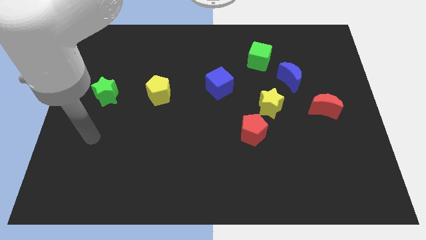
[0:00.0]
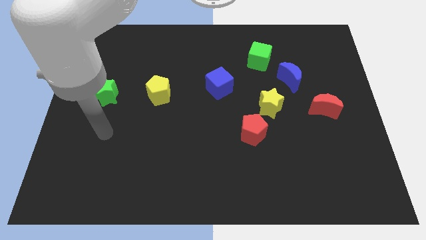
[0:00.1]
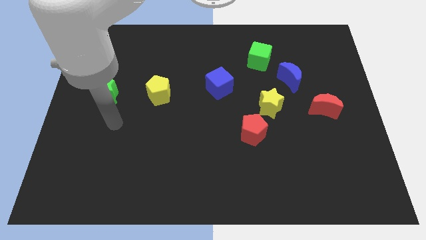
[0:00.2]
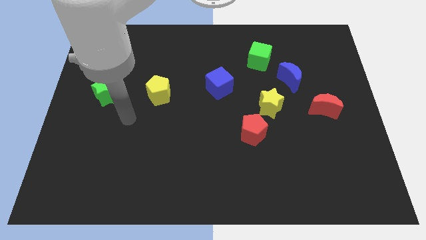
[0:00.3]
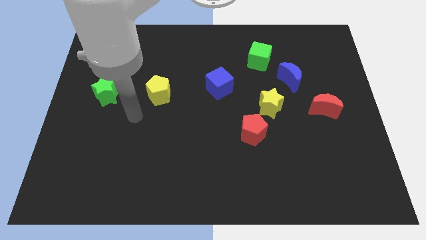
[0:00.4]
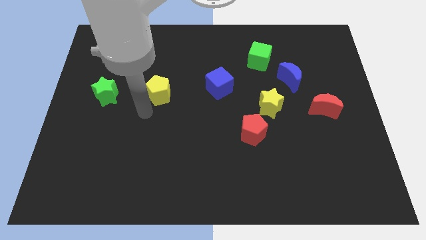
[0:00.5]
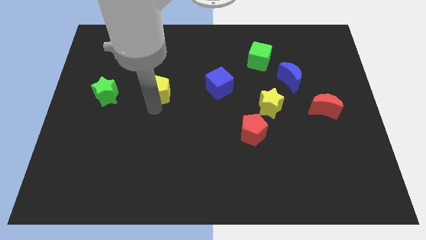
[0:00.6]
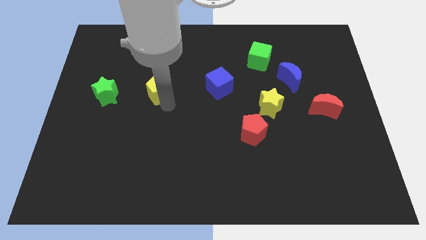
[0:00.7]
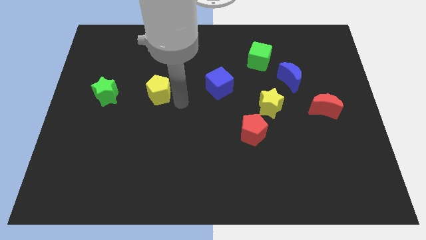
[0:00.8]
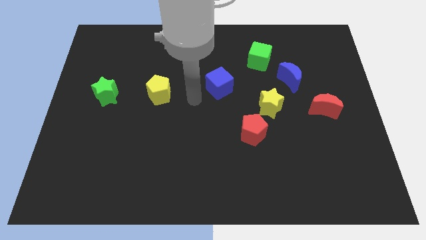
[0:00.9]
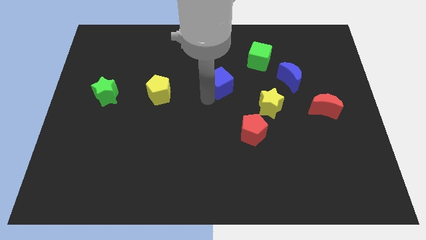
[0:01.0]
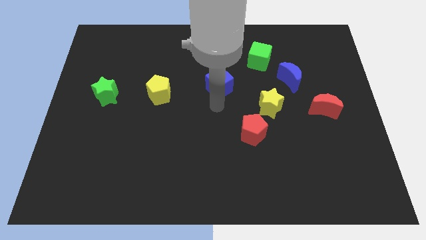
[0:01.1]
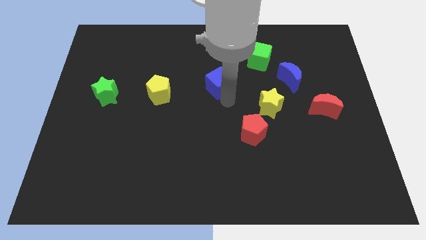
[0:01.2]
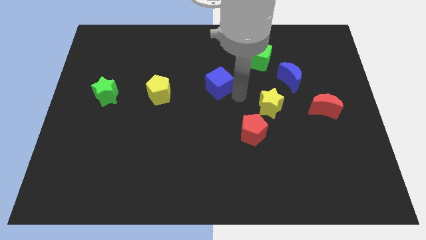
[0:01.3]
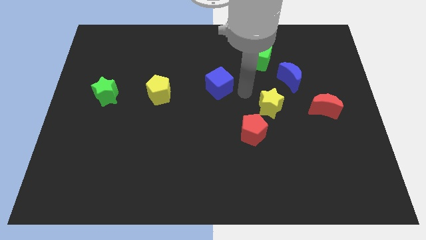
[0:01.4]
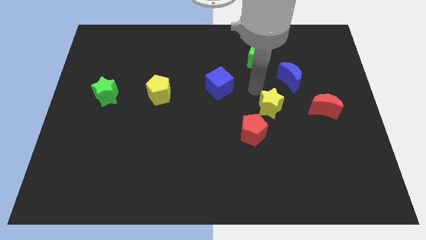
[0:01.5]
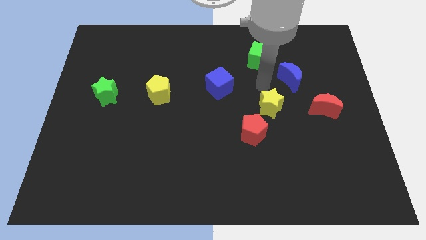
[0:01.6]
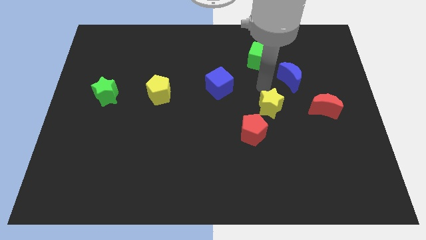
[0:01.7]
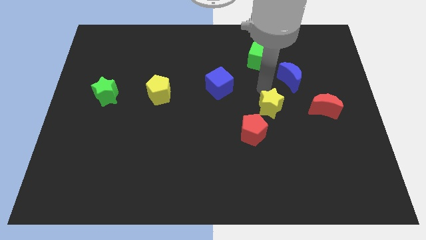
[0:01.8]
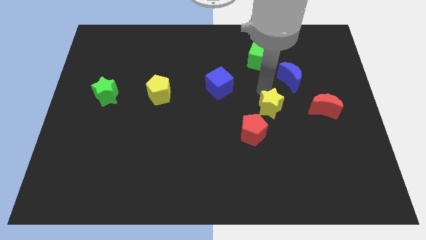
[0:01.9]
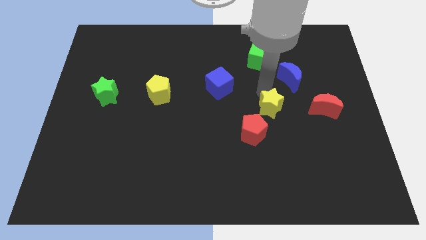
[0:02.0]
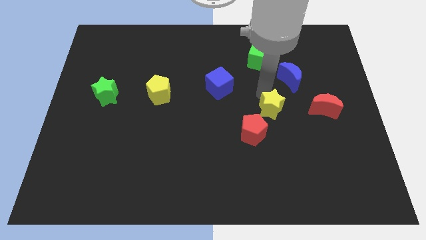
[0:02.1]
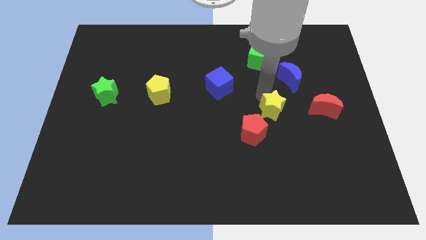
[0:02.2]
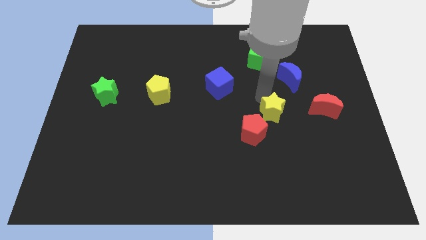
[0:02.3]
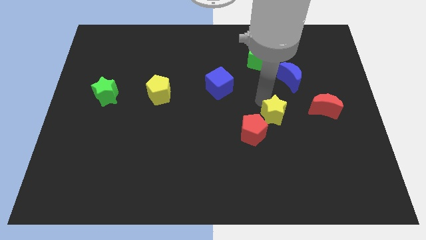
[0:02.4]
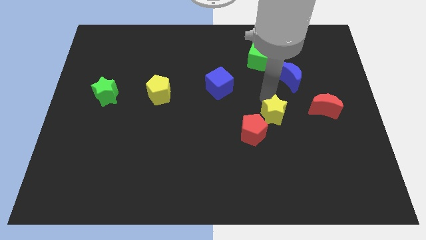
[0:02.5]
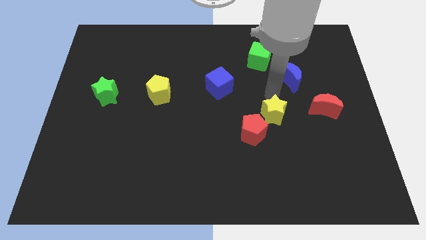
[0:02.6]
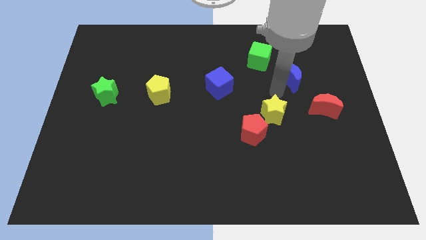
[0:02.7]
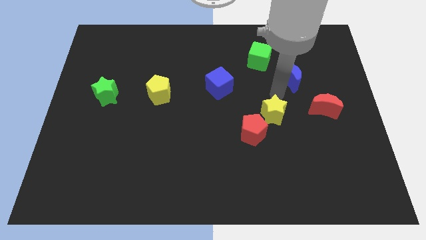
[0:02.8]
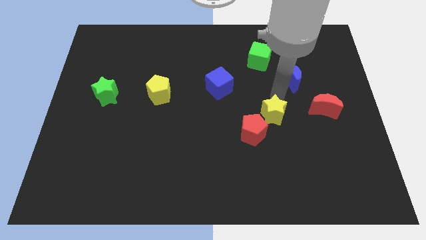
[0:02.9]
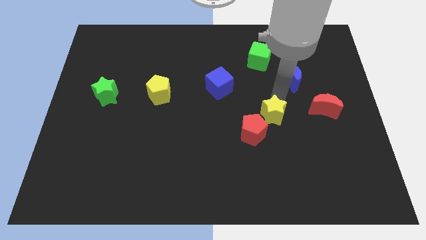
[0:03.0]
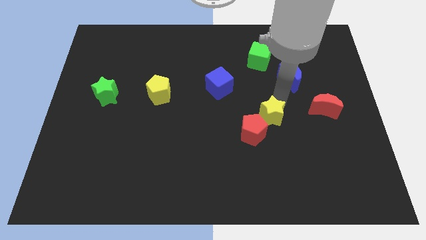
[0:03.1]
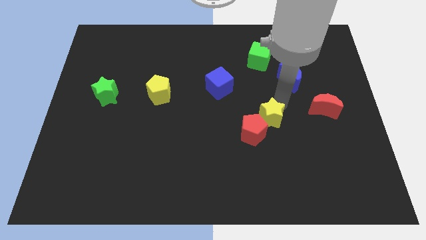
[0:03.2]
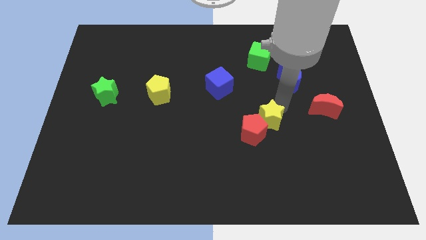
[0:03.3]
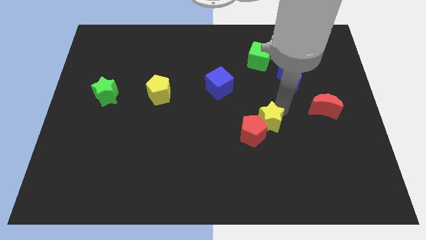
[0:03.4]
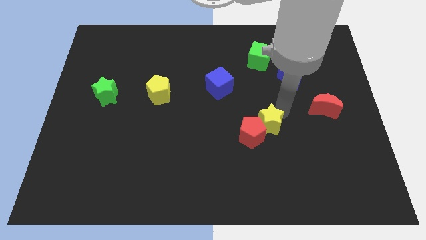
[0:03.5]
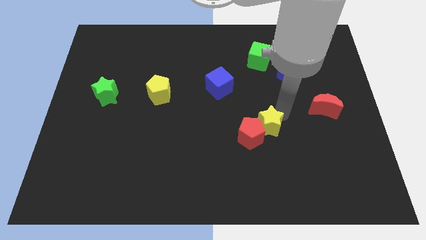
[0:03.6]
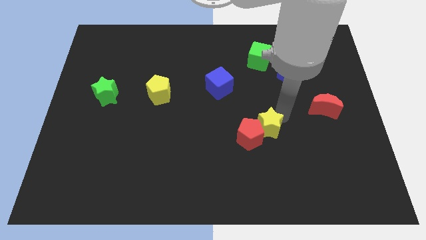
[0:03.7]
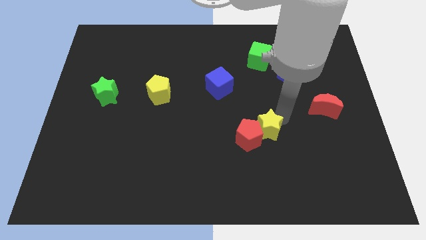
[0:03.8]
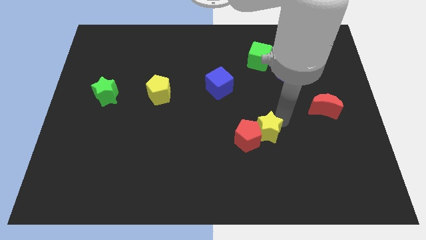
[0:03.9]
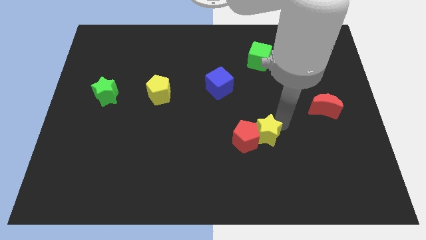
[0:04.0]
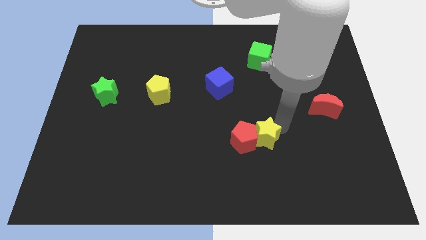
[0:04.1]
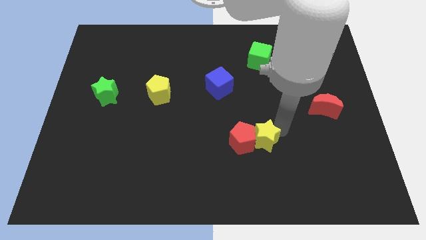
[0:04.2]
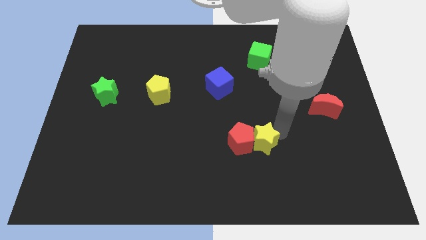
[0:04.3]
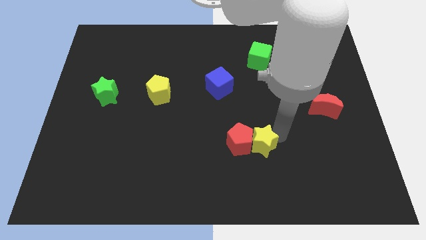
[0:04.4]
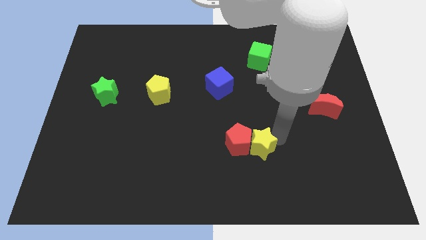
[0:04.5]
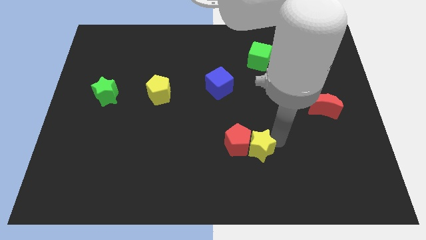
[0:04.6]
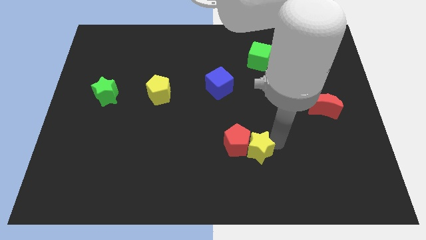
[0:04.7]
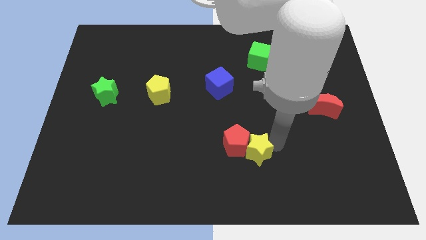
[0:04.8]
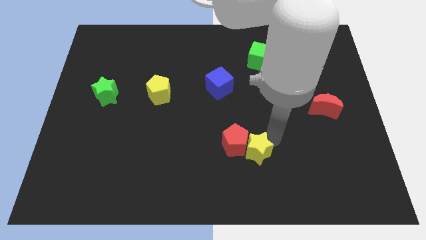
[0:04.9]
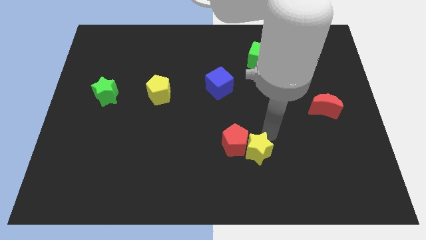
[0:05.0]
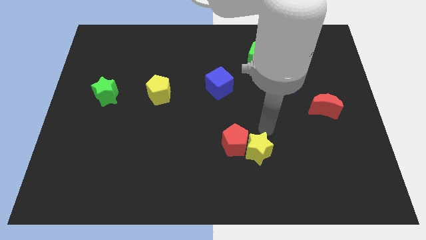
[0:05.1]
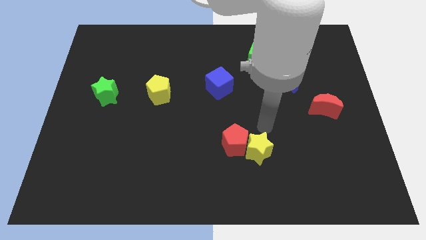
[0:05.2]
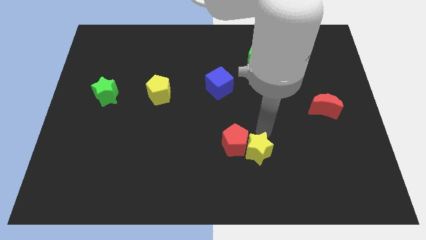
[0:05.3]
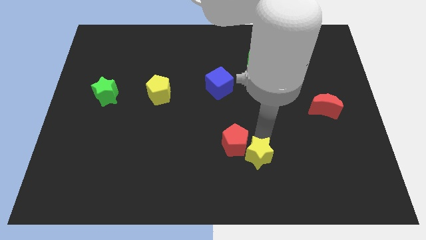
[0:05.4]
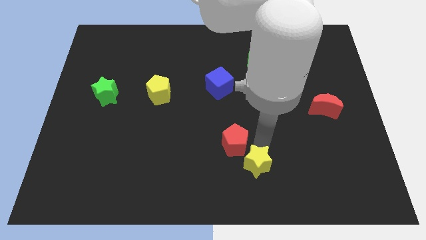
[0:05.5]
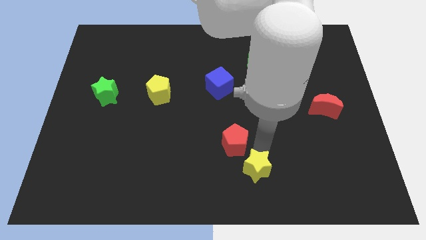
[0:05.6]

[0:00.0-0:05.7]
put the yellow star to the bottom side

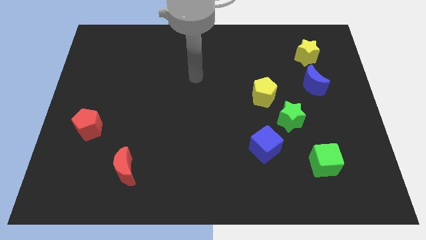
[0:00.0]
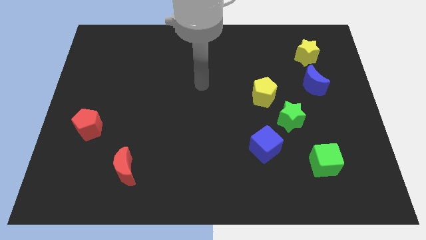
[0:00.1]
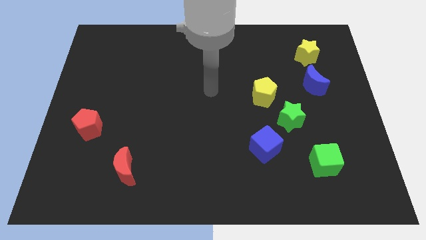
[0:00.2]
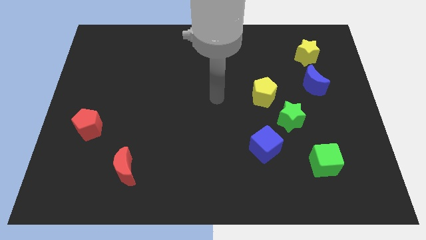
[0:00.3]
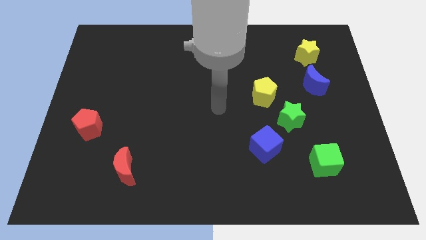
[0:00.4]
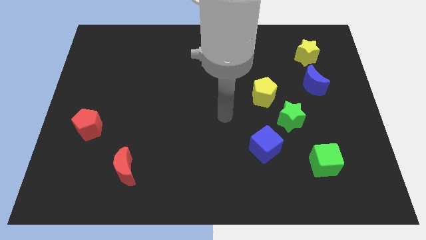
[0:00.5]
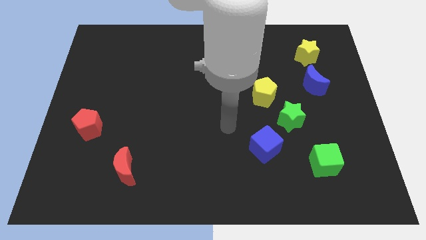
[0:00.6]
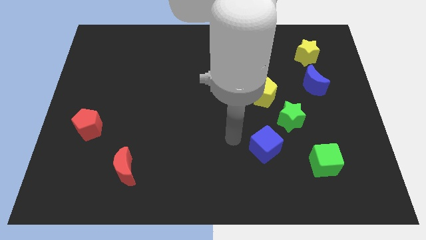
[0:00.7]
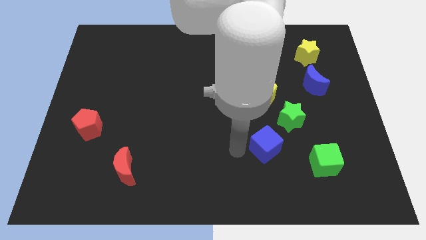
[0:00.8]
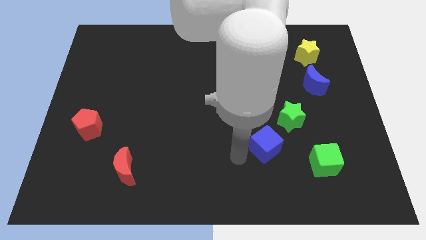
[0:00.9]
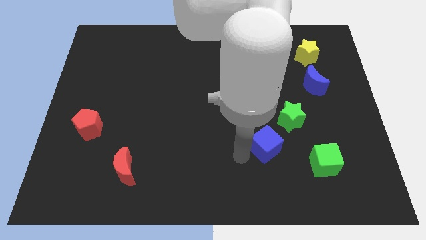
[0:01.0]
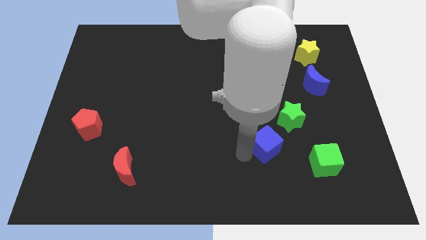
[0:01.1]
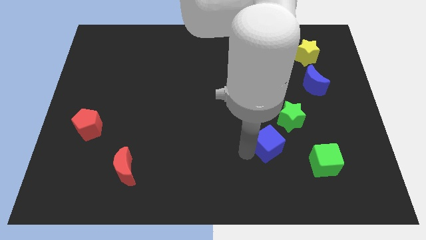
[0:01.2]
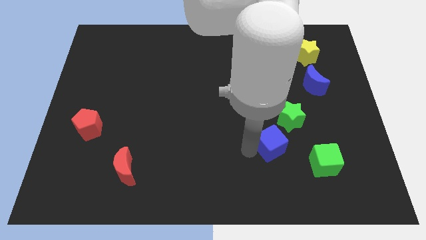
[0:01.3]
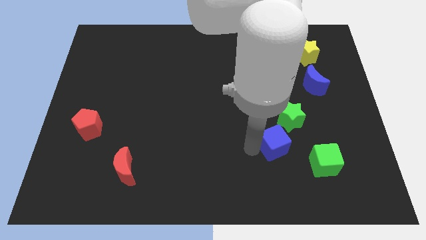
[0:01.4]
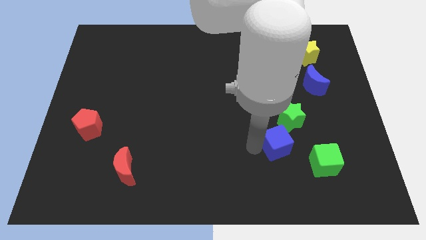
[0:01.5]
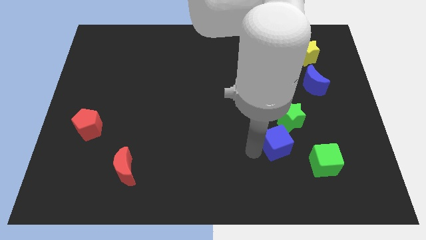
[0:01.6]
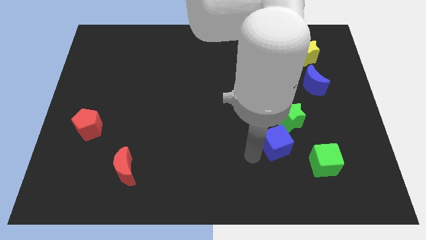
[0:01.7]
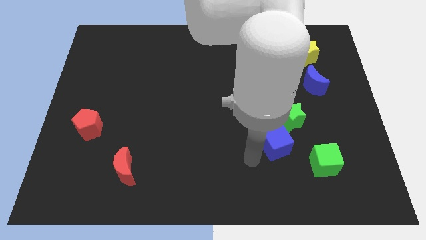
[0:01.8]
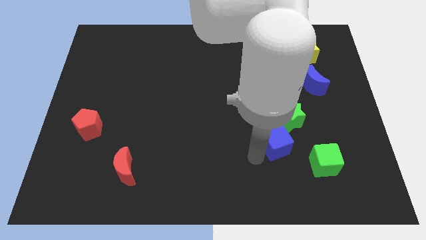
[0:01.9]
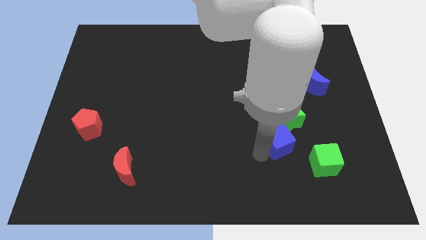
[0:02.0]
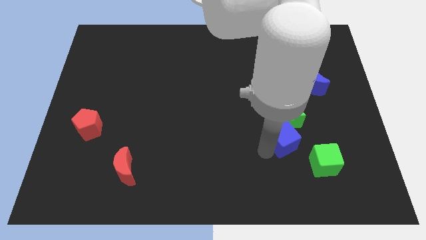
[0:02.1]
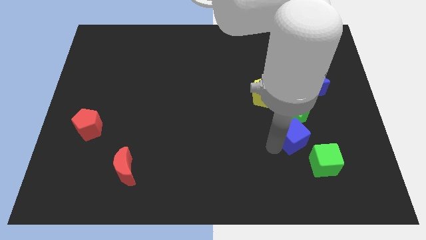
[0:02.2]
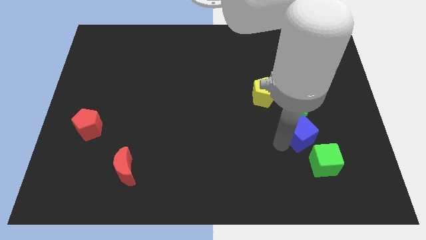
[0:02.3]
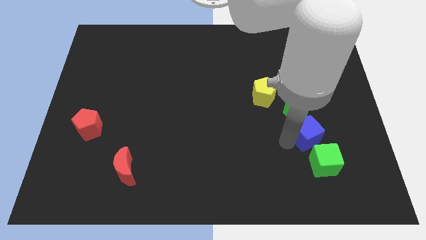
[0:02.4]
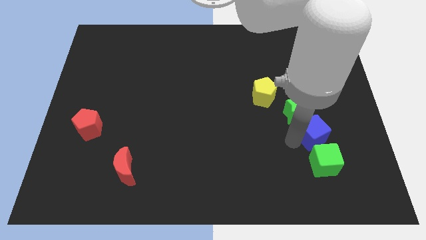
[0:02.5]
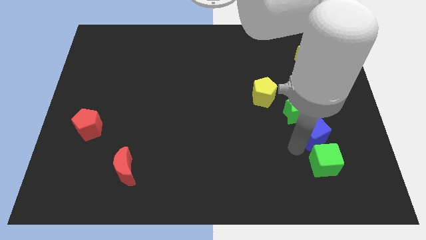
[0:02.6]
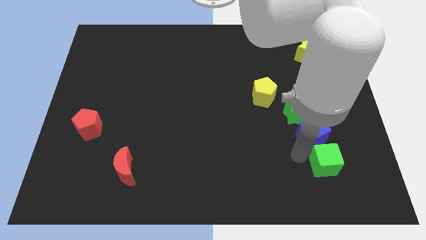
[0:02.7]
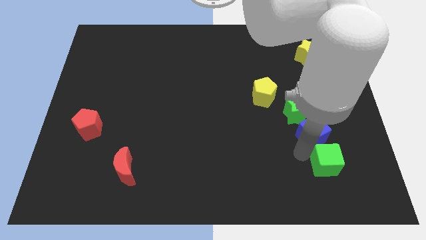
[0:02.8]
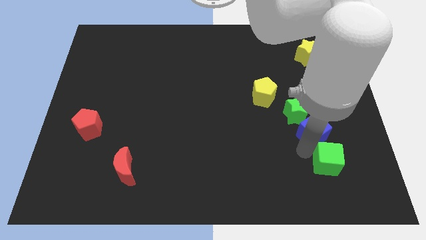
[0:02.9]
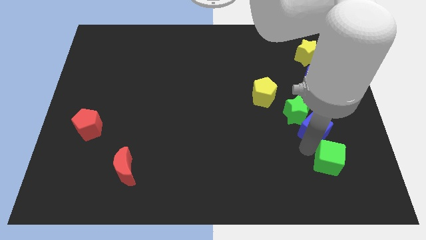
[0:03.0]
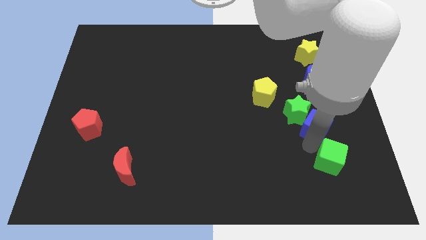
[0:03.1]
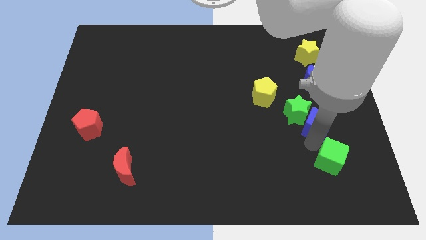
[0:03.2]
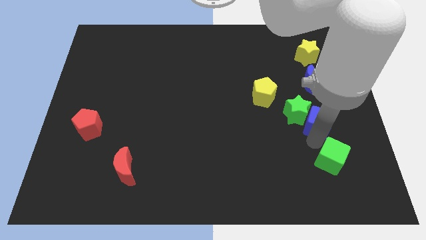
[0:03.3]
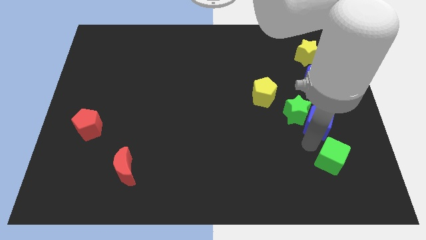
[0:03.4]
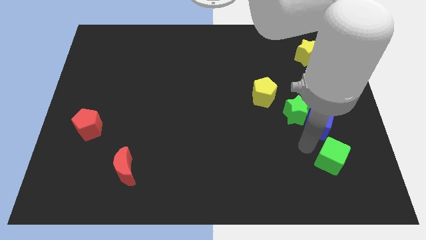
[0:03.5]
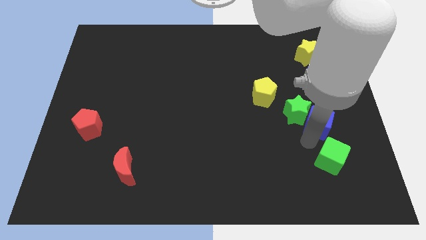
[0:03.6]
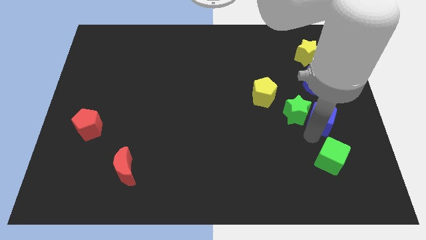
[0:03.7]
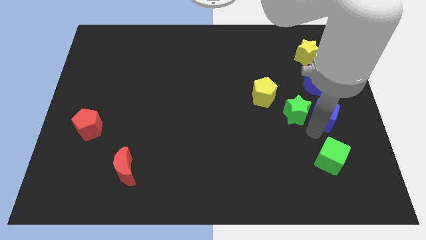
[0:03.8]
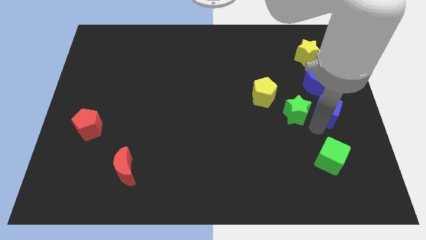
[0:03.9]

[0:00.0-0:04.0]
put the blue cube to the center right
